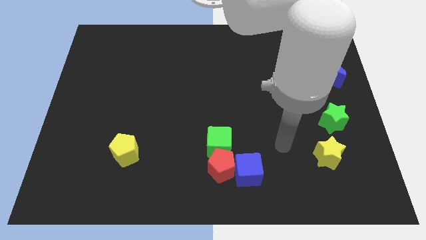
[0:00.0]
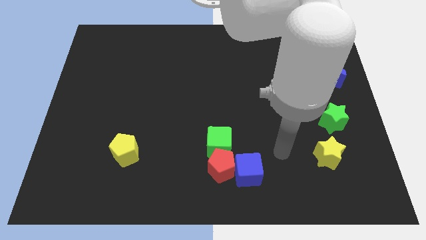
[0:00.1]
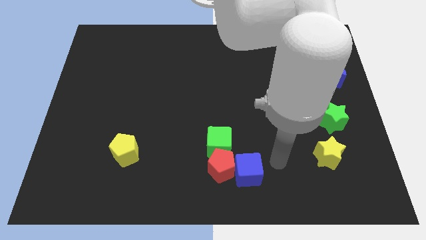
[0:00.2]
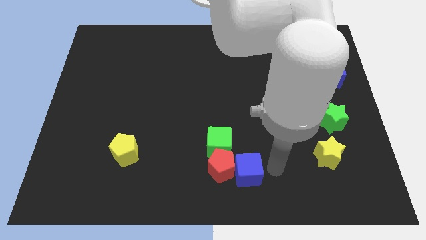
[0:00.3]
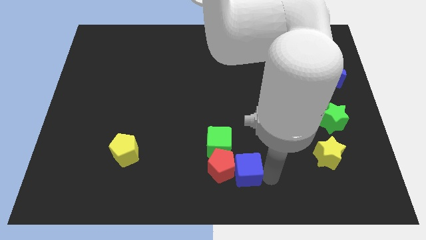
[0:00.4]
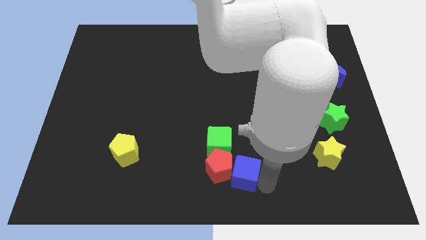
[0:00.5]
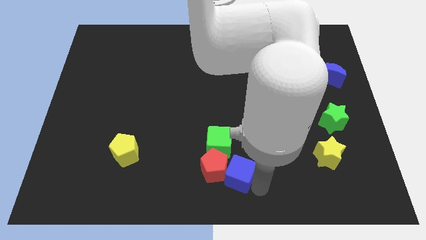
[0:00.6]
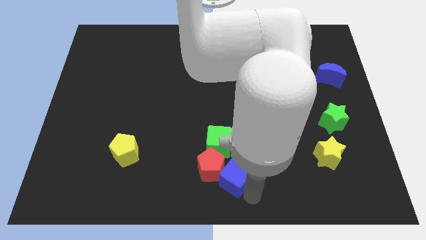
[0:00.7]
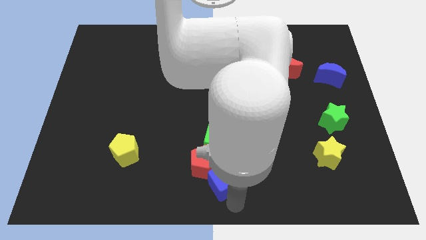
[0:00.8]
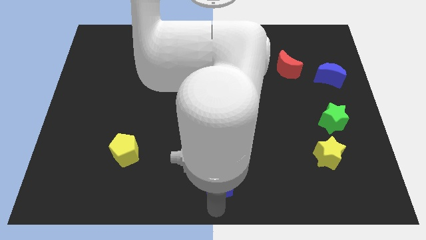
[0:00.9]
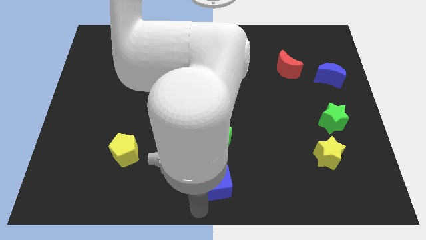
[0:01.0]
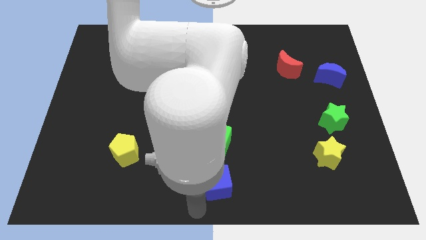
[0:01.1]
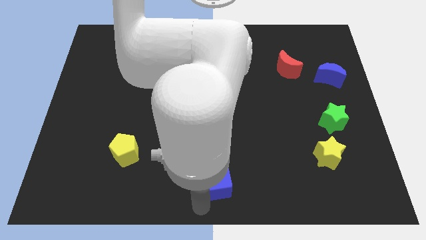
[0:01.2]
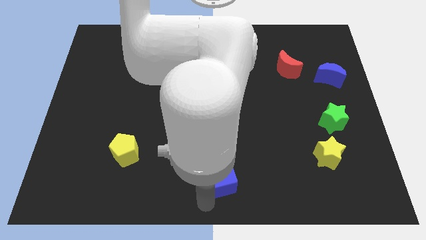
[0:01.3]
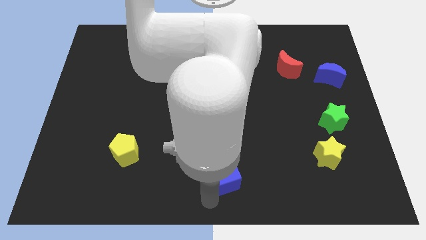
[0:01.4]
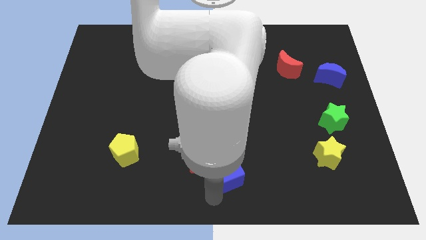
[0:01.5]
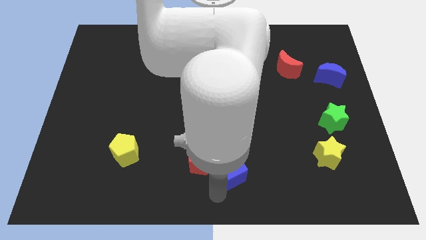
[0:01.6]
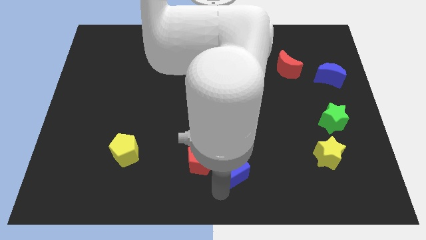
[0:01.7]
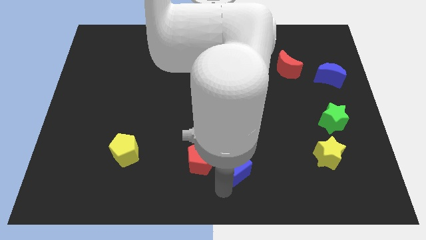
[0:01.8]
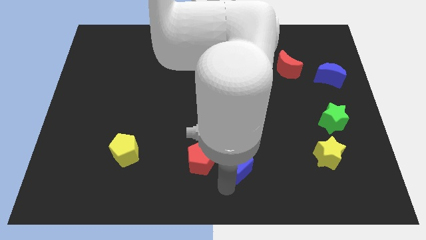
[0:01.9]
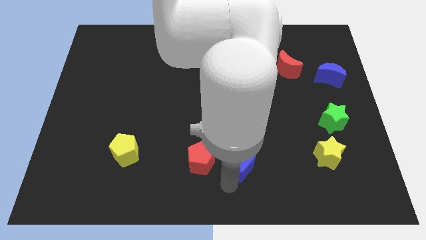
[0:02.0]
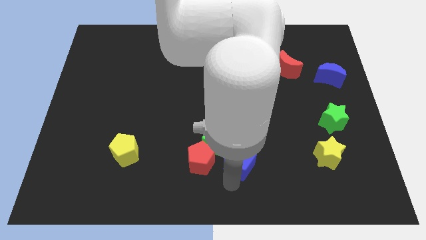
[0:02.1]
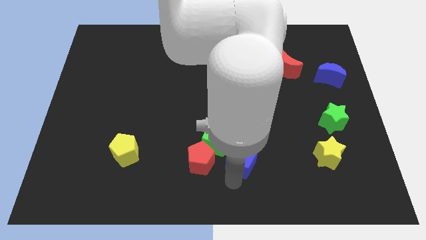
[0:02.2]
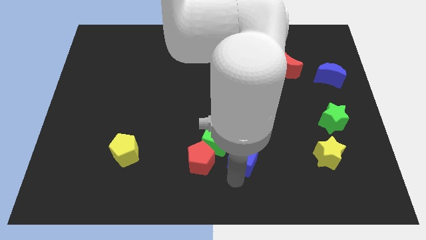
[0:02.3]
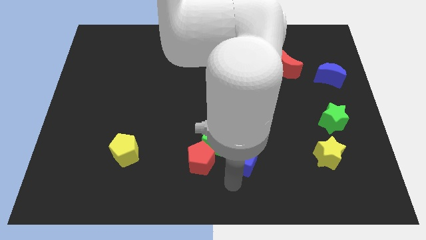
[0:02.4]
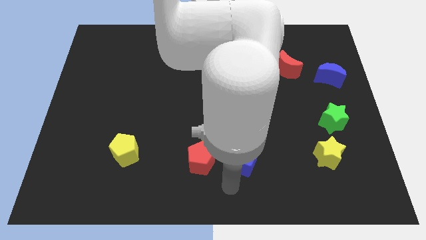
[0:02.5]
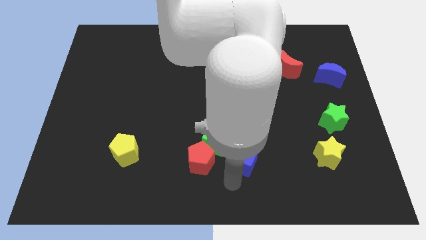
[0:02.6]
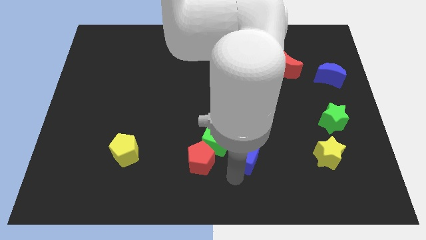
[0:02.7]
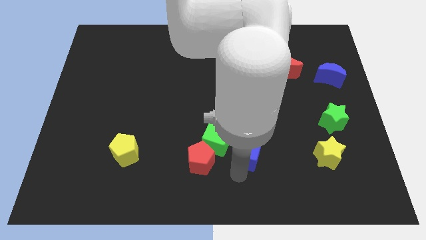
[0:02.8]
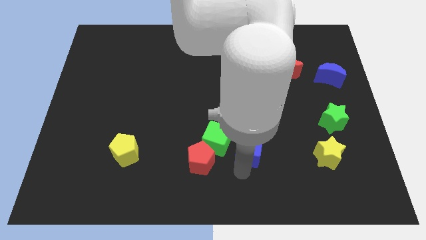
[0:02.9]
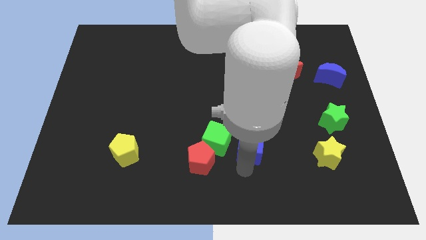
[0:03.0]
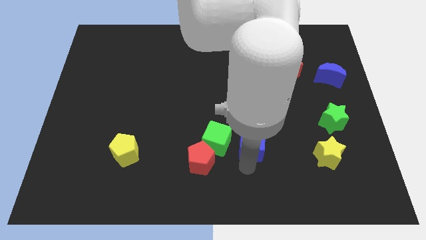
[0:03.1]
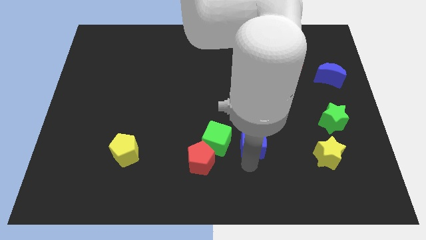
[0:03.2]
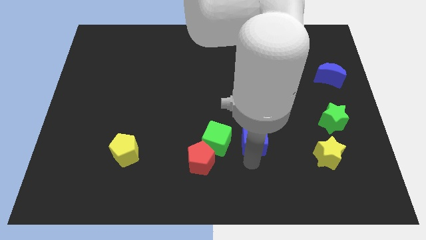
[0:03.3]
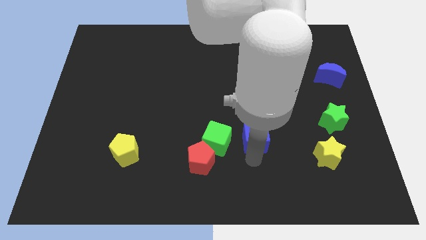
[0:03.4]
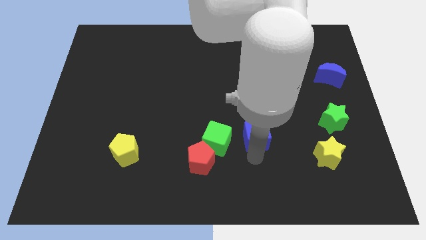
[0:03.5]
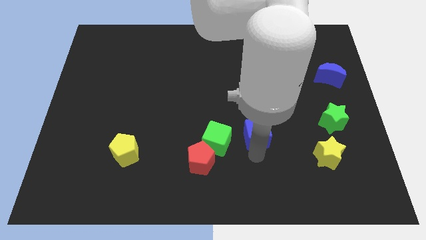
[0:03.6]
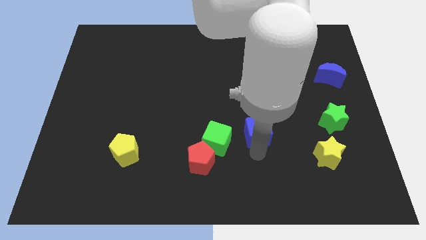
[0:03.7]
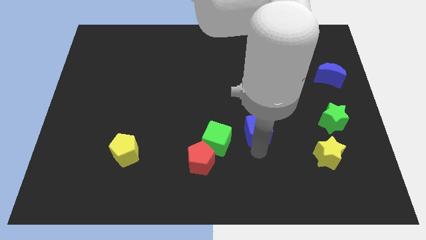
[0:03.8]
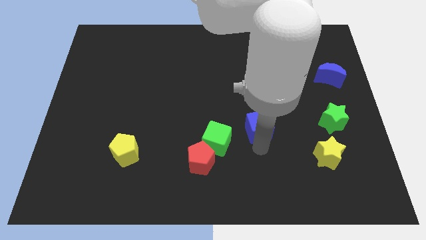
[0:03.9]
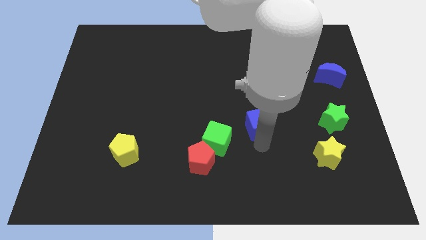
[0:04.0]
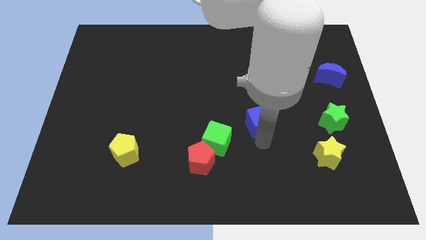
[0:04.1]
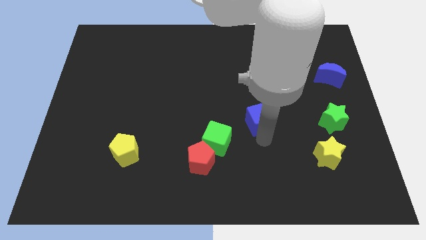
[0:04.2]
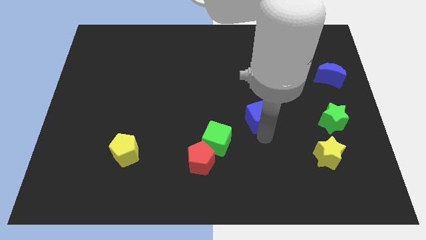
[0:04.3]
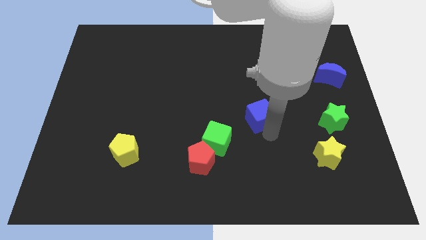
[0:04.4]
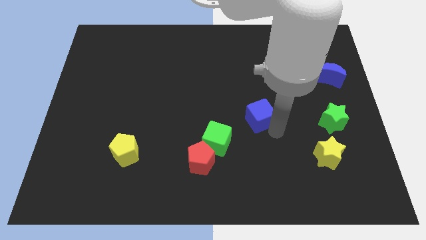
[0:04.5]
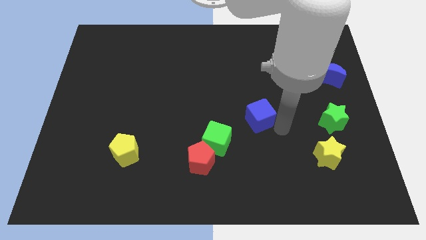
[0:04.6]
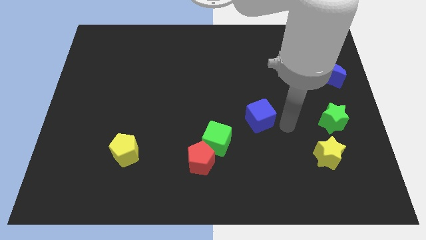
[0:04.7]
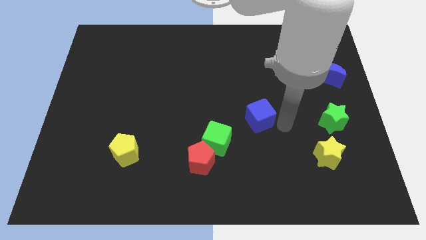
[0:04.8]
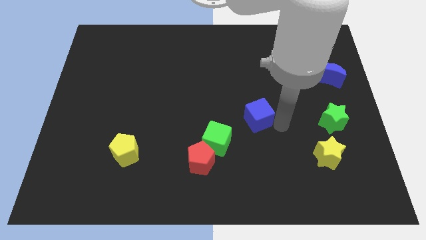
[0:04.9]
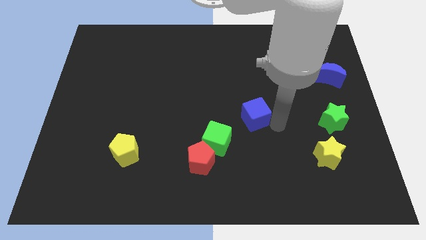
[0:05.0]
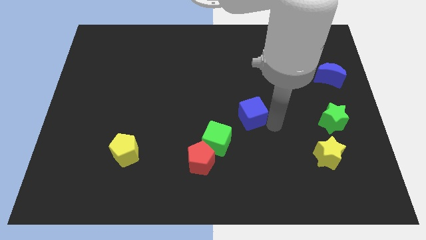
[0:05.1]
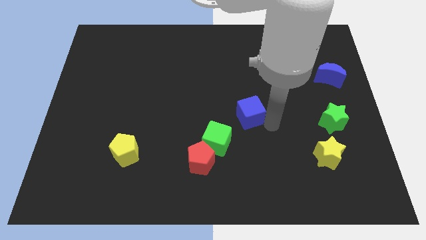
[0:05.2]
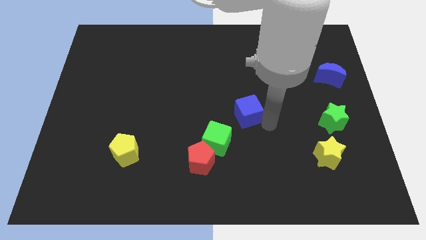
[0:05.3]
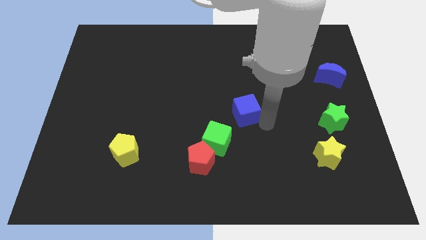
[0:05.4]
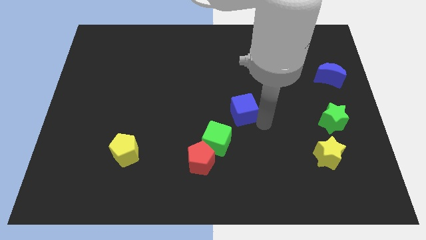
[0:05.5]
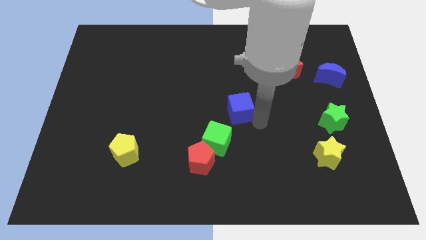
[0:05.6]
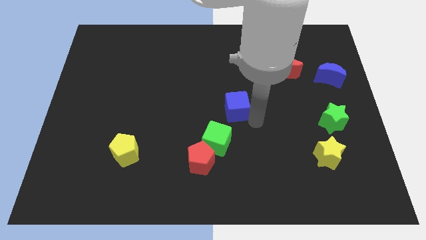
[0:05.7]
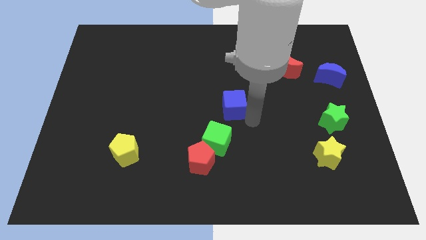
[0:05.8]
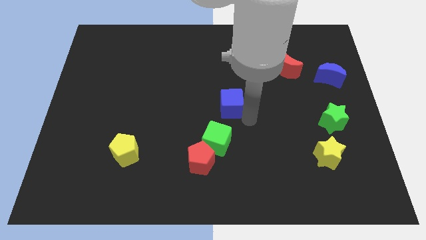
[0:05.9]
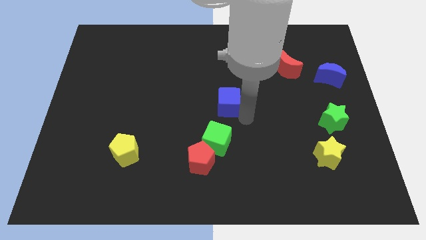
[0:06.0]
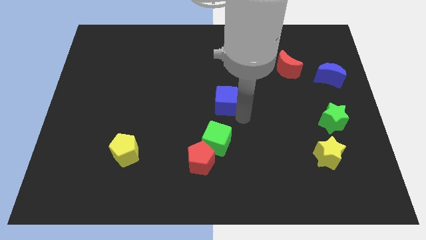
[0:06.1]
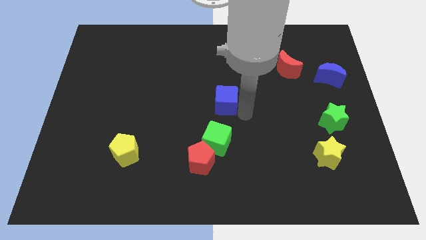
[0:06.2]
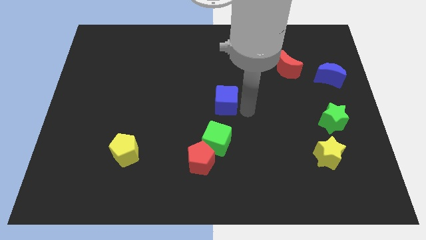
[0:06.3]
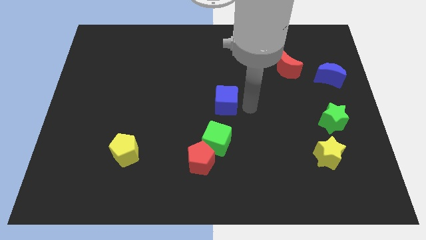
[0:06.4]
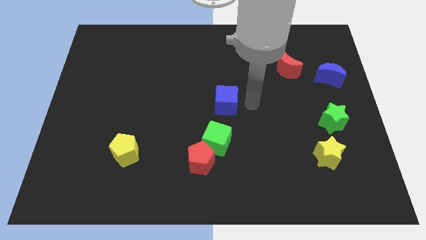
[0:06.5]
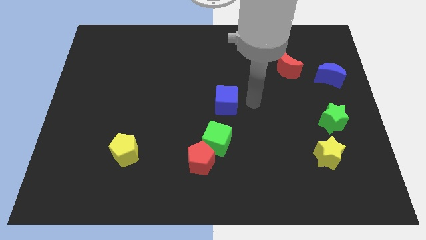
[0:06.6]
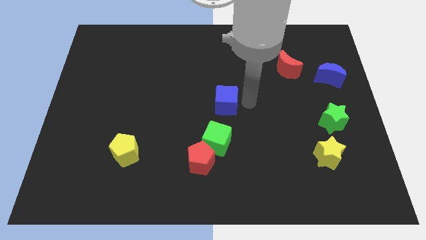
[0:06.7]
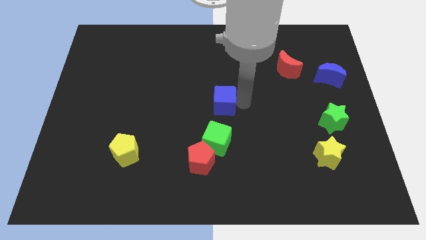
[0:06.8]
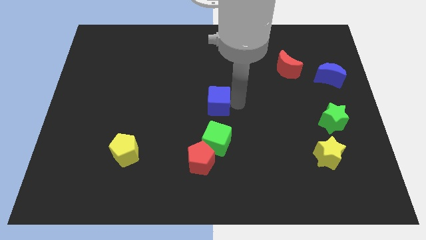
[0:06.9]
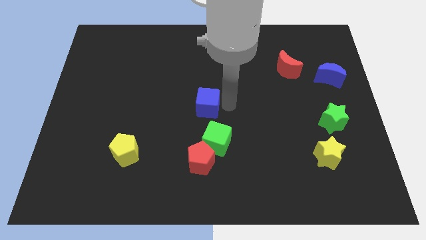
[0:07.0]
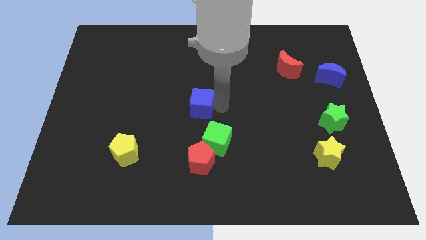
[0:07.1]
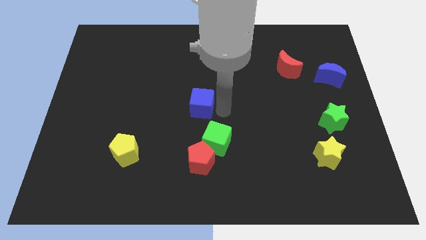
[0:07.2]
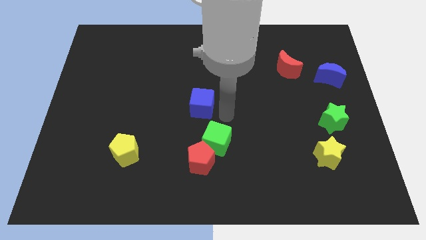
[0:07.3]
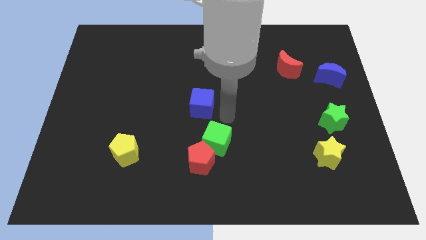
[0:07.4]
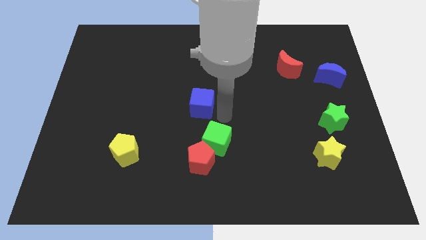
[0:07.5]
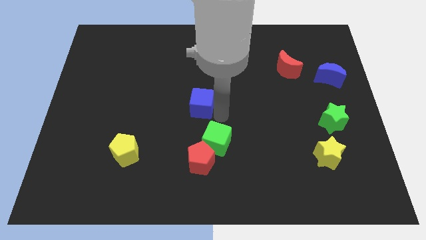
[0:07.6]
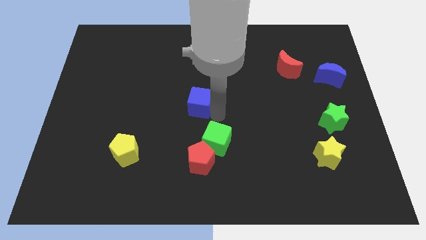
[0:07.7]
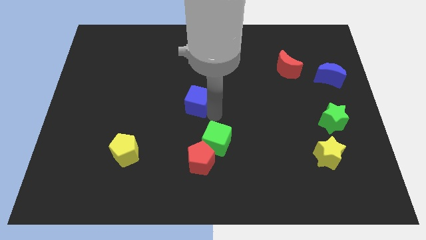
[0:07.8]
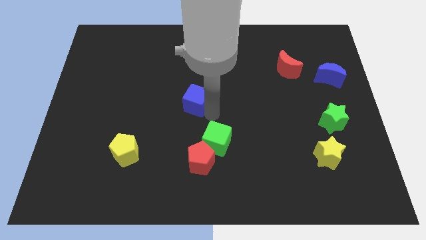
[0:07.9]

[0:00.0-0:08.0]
slide the blue cube upwards and then left

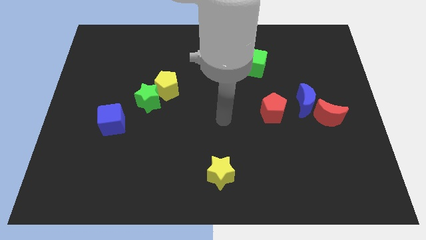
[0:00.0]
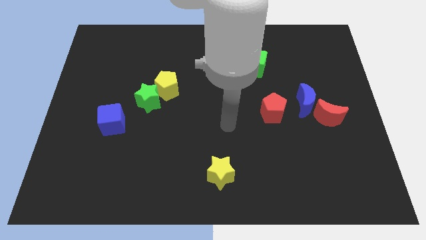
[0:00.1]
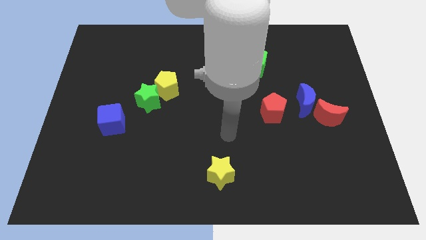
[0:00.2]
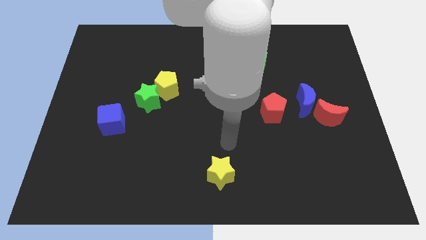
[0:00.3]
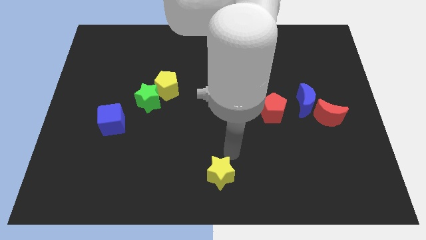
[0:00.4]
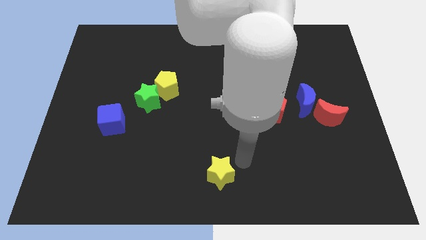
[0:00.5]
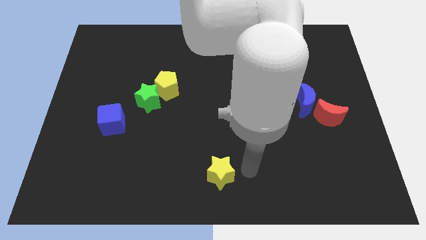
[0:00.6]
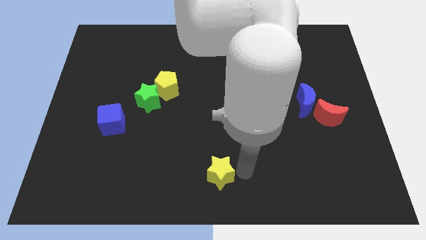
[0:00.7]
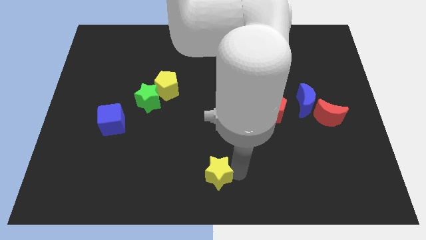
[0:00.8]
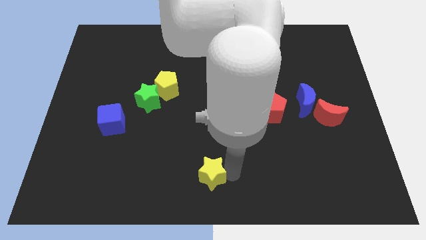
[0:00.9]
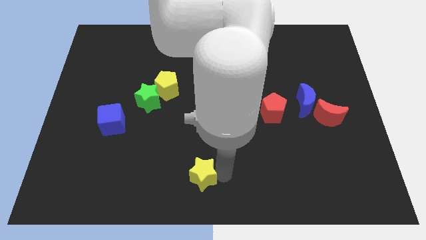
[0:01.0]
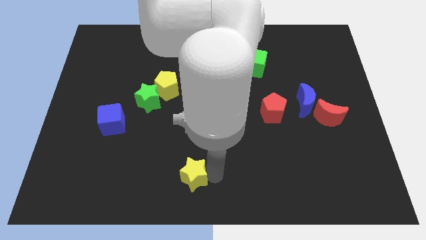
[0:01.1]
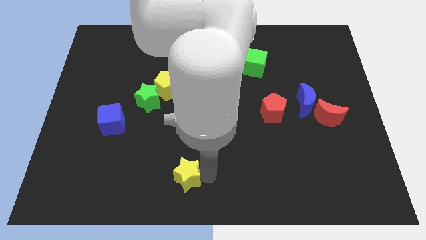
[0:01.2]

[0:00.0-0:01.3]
push the yellow star a little bit left
